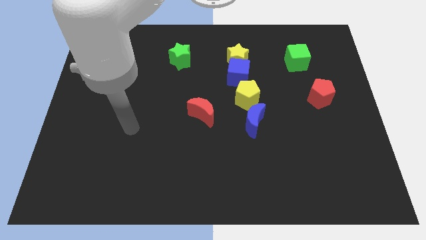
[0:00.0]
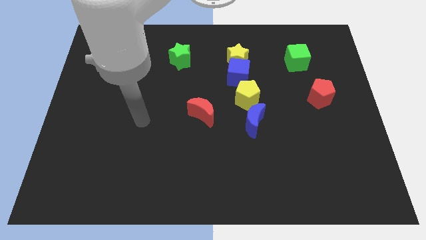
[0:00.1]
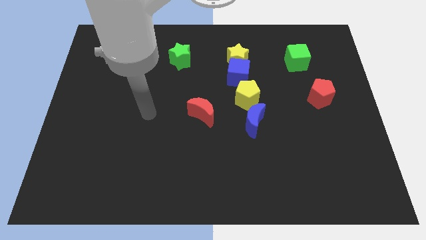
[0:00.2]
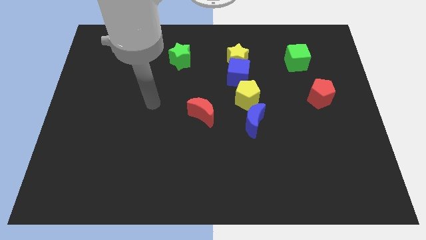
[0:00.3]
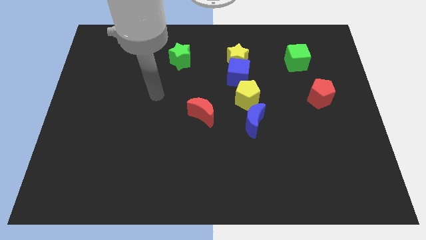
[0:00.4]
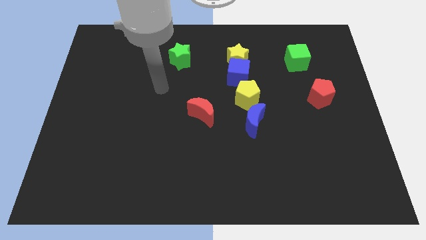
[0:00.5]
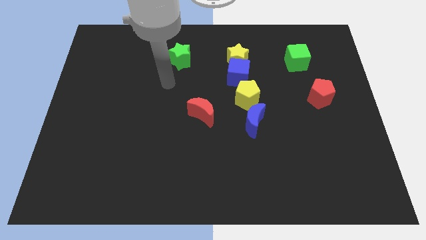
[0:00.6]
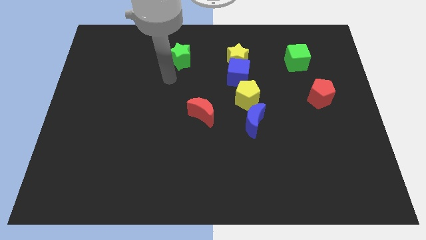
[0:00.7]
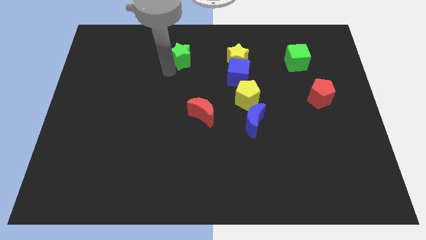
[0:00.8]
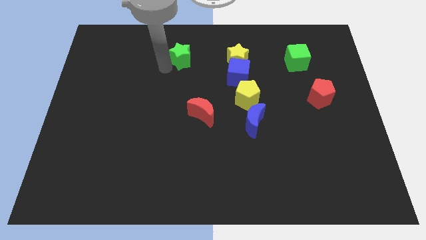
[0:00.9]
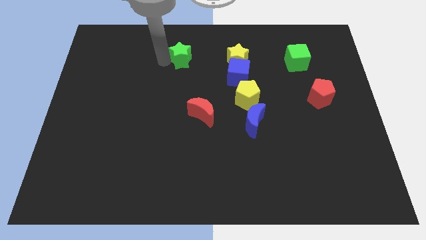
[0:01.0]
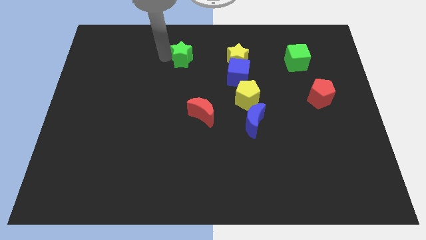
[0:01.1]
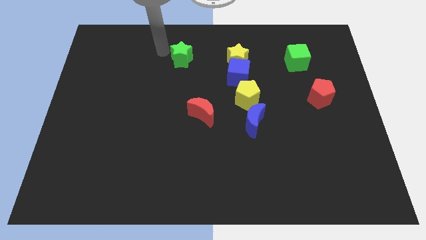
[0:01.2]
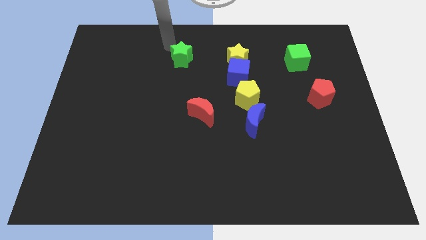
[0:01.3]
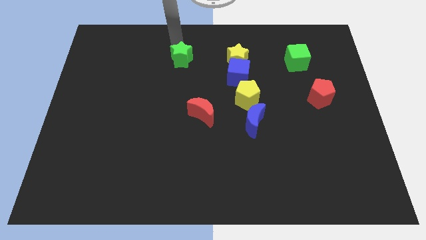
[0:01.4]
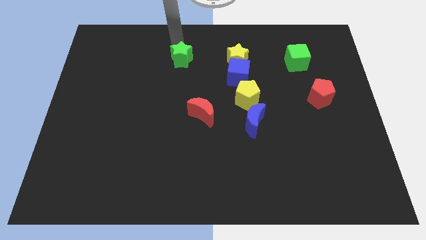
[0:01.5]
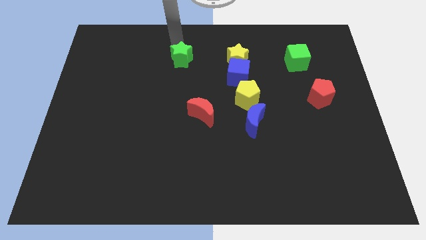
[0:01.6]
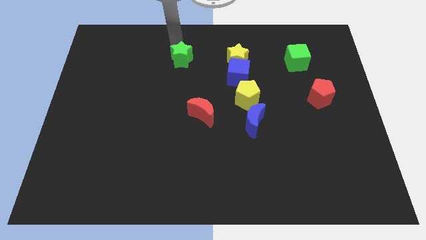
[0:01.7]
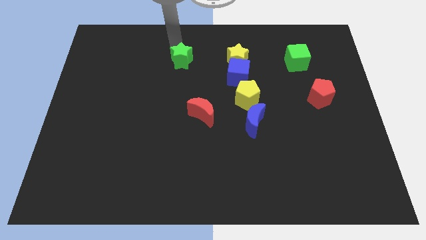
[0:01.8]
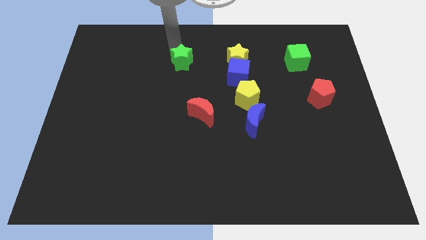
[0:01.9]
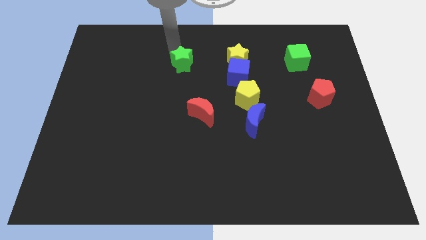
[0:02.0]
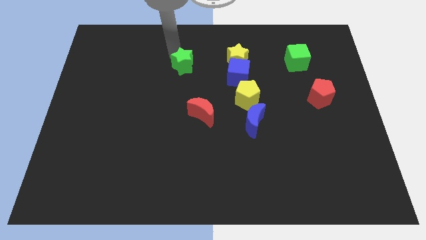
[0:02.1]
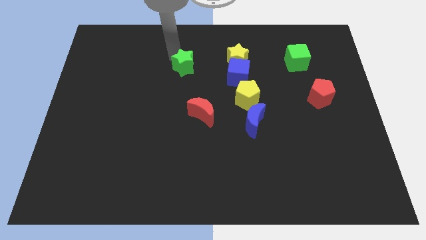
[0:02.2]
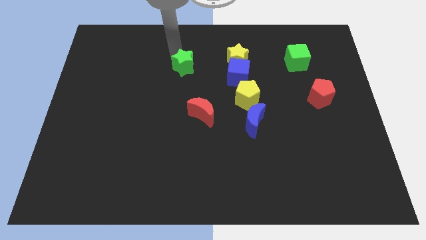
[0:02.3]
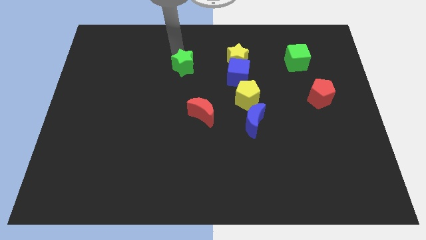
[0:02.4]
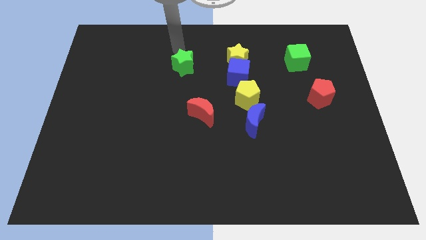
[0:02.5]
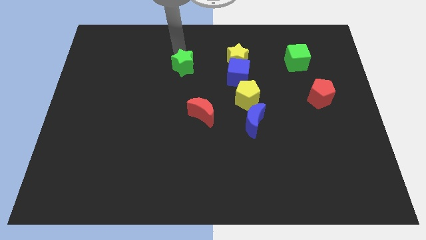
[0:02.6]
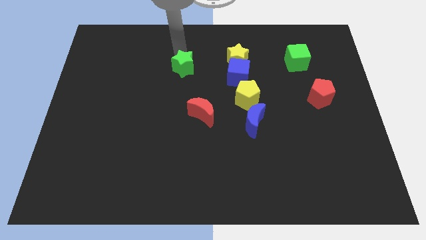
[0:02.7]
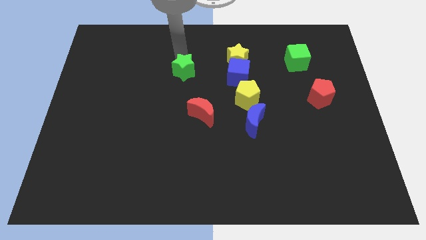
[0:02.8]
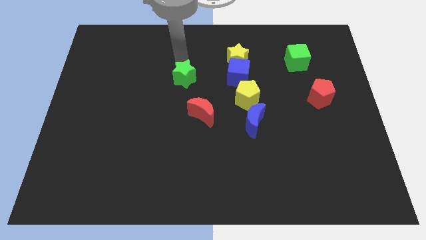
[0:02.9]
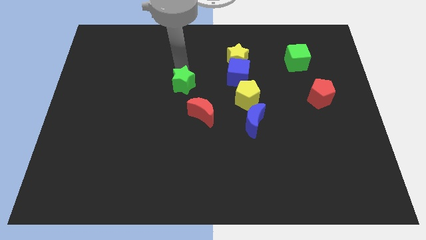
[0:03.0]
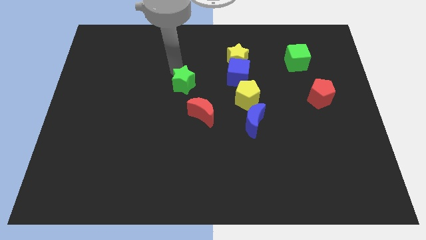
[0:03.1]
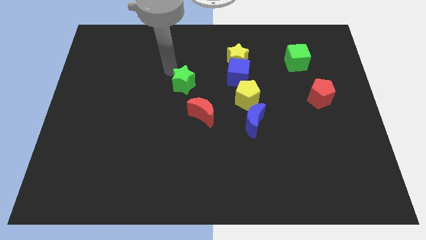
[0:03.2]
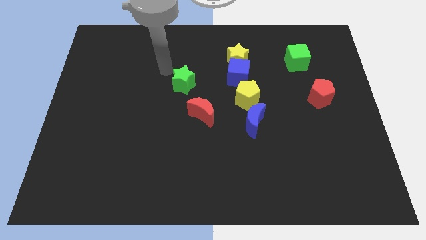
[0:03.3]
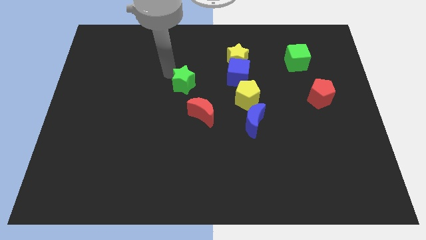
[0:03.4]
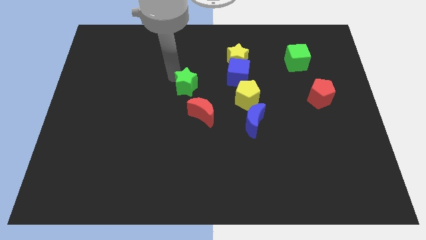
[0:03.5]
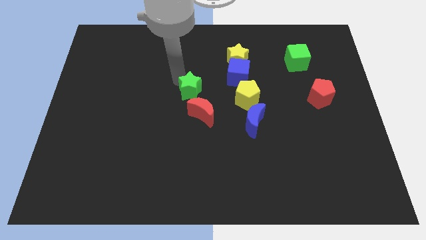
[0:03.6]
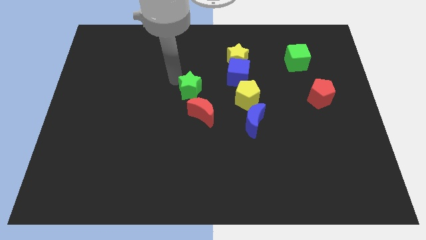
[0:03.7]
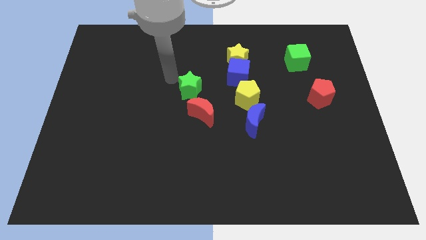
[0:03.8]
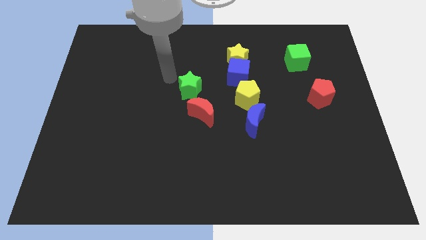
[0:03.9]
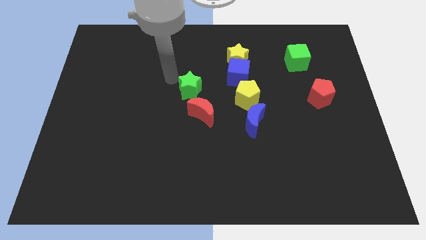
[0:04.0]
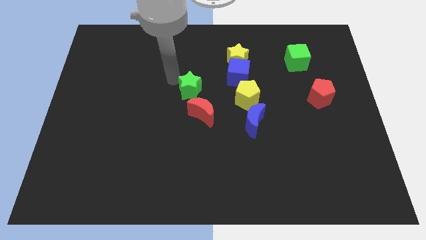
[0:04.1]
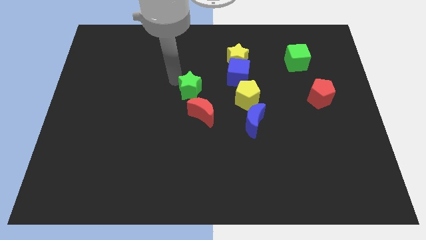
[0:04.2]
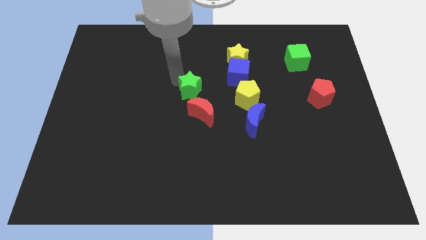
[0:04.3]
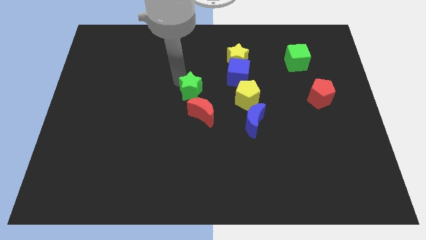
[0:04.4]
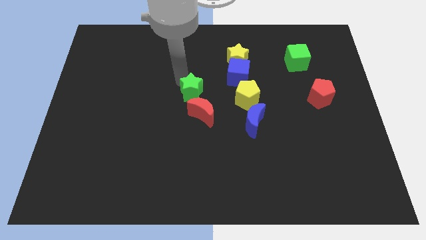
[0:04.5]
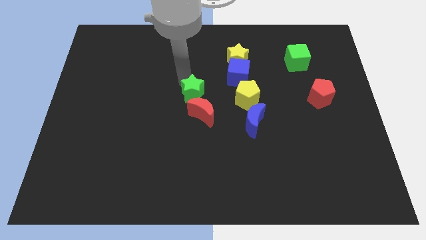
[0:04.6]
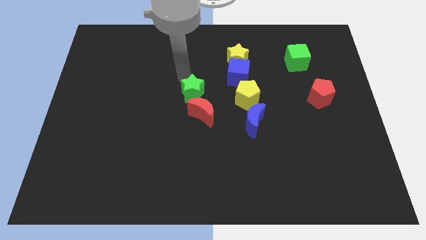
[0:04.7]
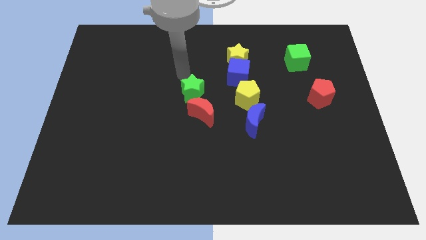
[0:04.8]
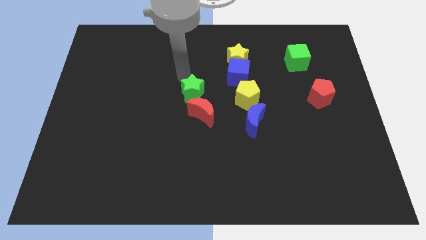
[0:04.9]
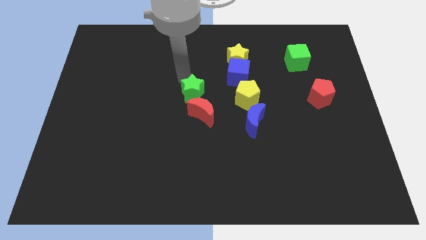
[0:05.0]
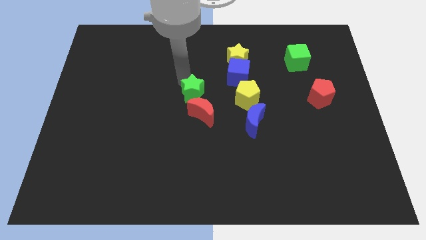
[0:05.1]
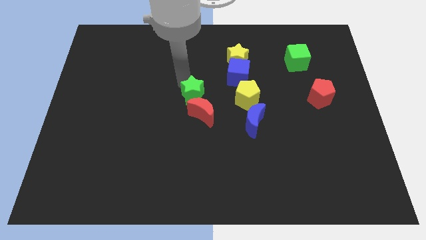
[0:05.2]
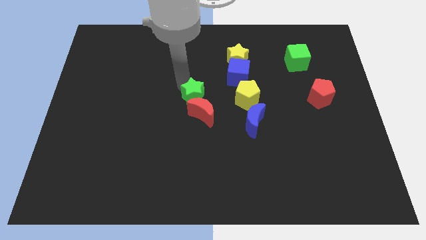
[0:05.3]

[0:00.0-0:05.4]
move the green star close to the red moon

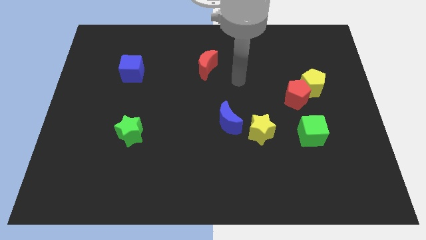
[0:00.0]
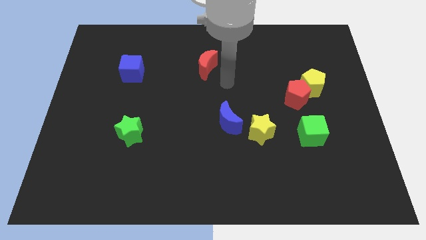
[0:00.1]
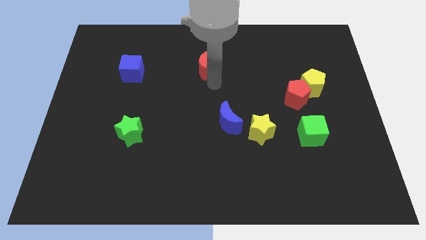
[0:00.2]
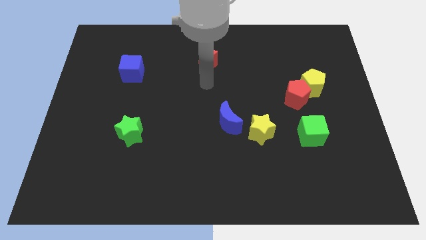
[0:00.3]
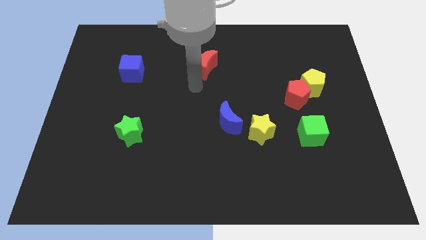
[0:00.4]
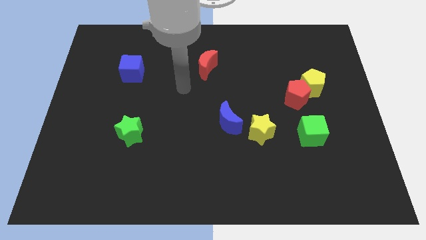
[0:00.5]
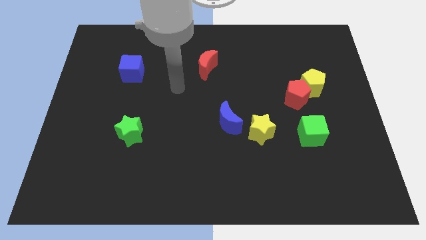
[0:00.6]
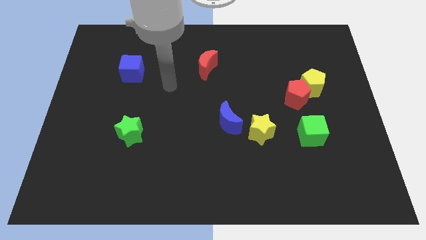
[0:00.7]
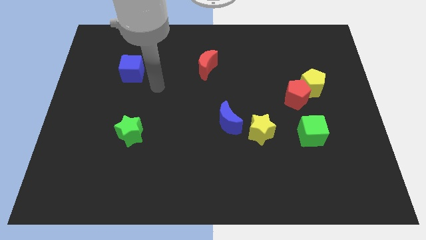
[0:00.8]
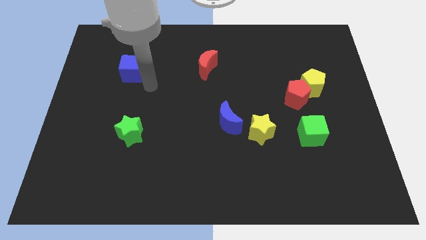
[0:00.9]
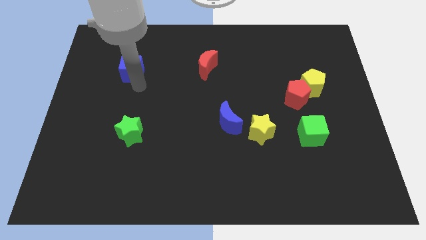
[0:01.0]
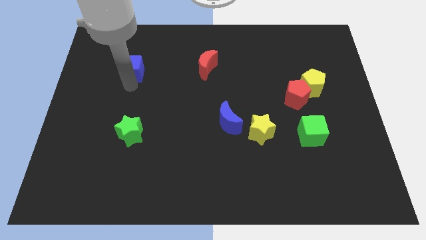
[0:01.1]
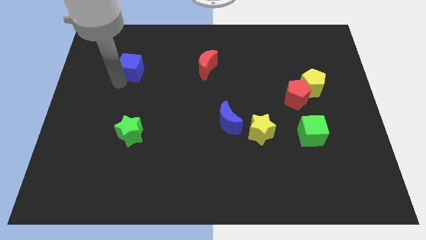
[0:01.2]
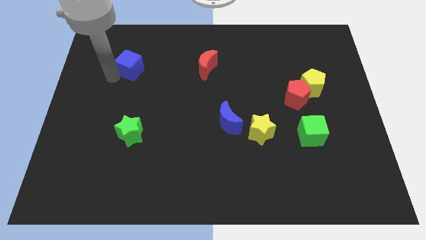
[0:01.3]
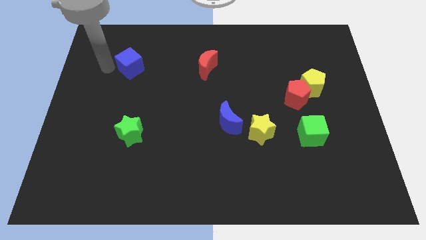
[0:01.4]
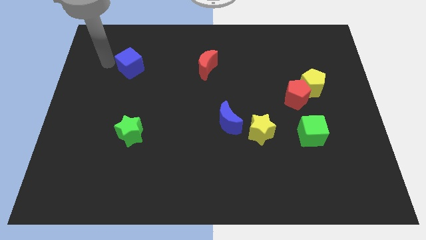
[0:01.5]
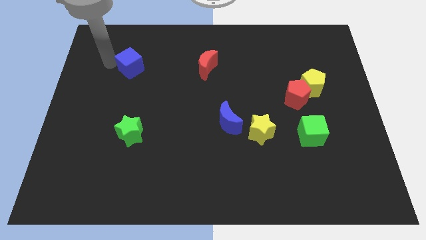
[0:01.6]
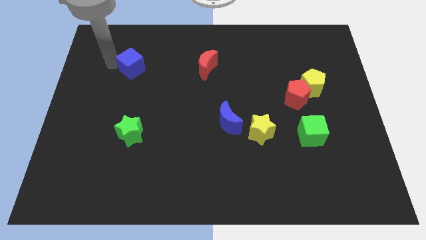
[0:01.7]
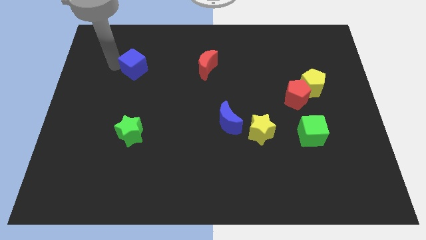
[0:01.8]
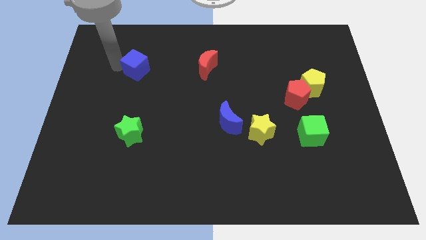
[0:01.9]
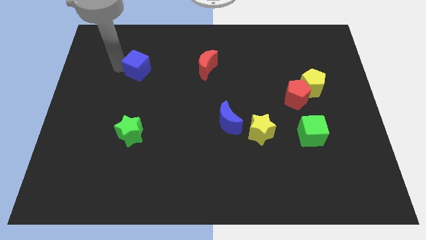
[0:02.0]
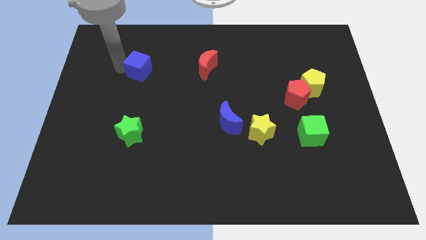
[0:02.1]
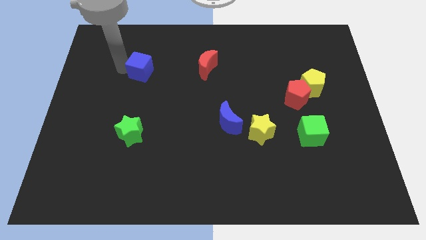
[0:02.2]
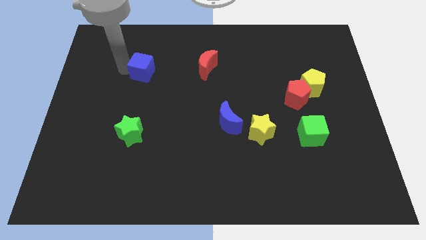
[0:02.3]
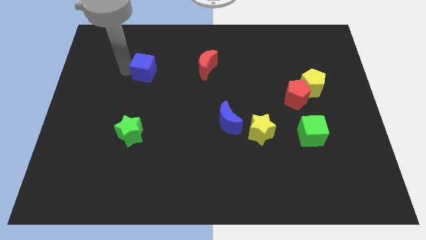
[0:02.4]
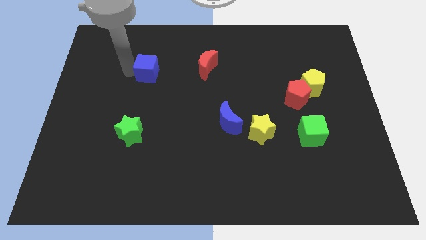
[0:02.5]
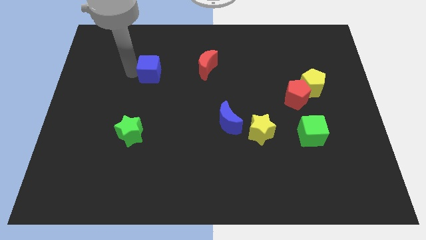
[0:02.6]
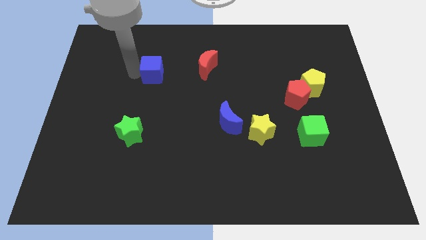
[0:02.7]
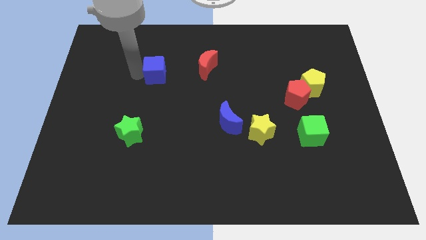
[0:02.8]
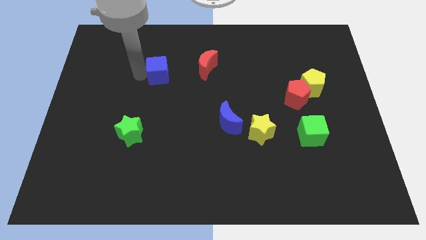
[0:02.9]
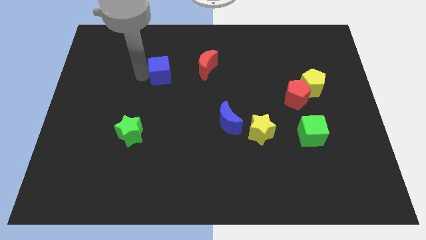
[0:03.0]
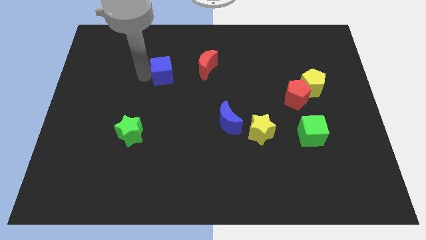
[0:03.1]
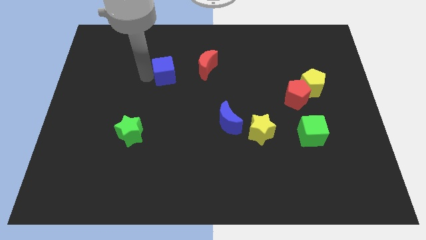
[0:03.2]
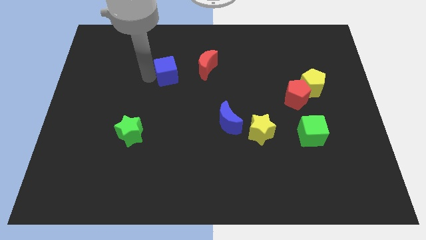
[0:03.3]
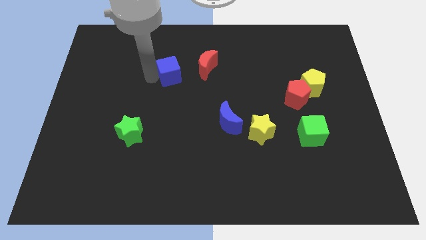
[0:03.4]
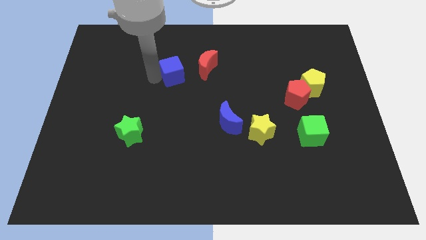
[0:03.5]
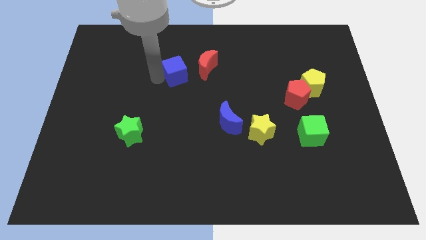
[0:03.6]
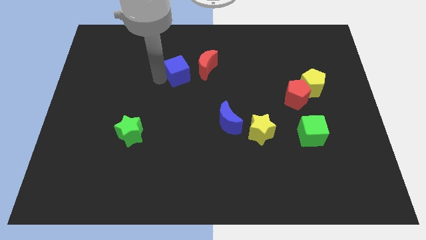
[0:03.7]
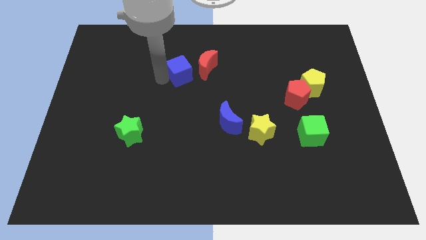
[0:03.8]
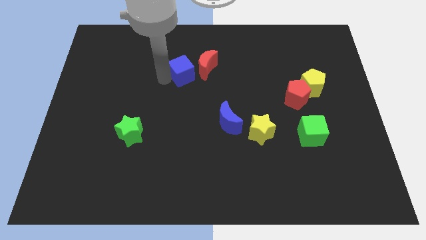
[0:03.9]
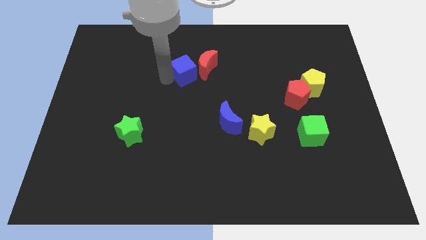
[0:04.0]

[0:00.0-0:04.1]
slide the blue cube to the red moon
